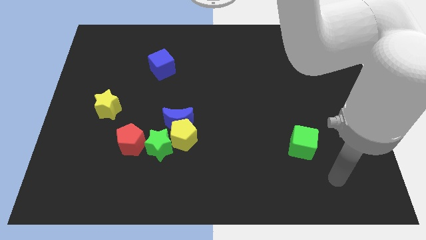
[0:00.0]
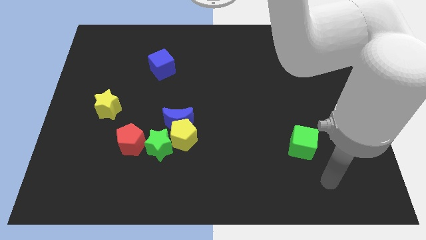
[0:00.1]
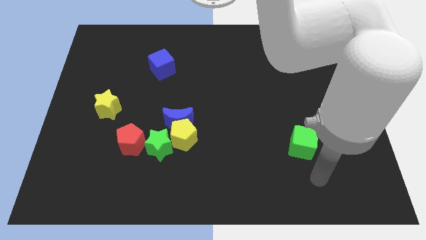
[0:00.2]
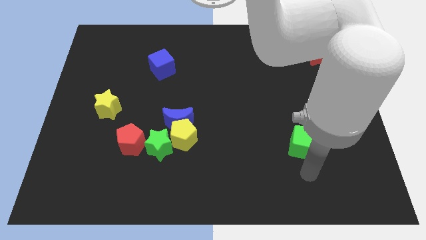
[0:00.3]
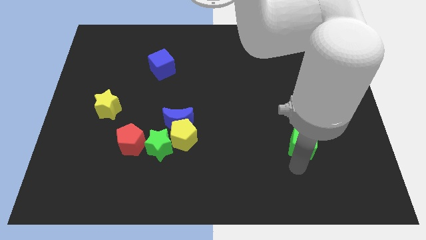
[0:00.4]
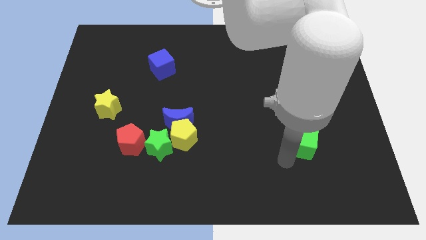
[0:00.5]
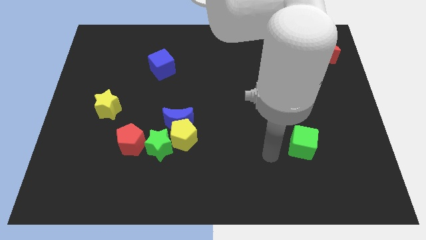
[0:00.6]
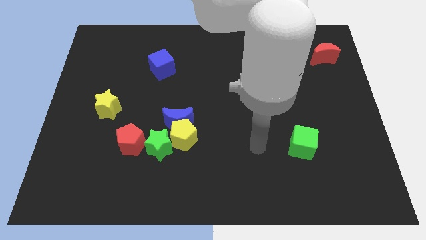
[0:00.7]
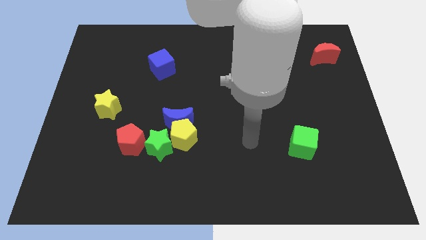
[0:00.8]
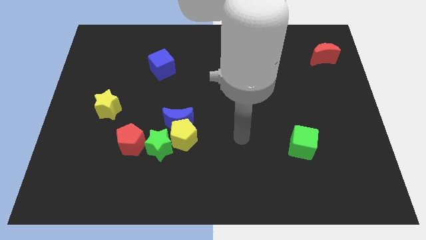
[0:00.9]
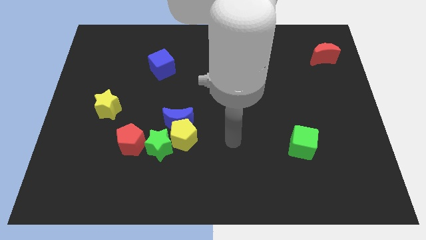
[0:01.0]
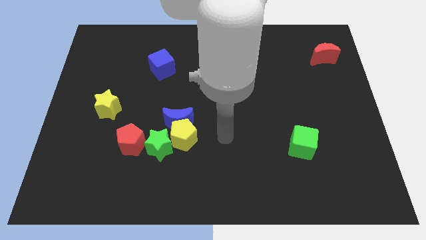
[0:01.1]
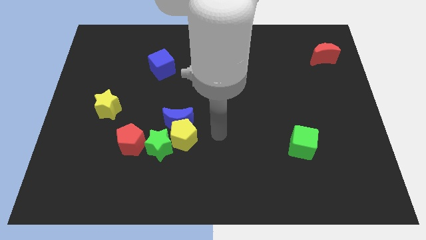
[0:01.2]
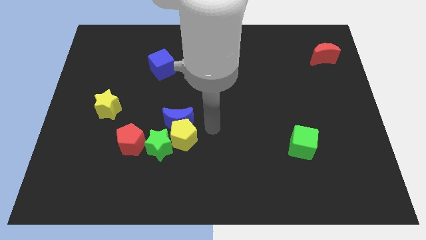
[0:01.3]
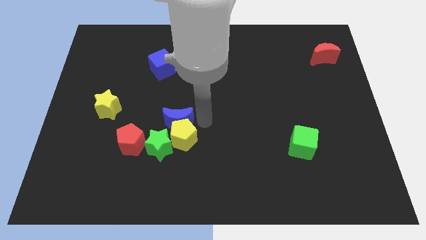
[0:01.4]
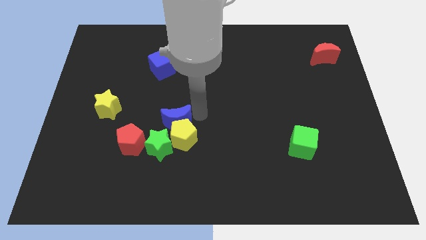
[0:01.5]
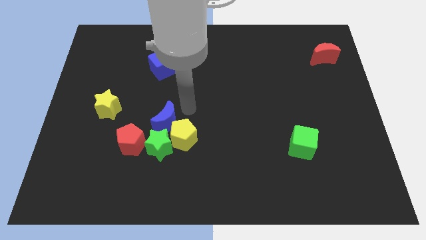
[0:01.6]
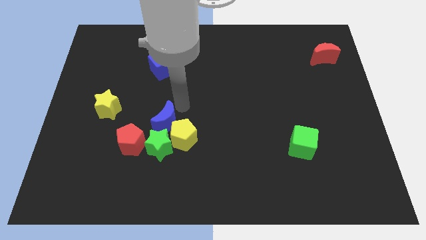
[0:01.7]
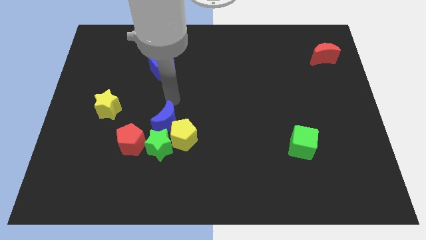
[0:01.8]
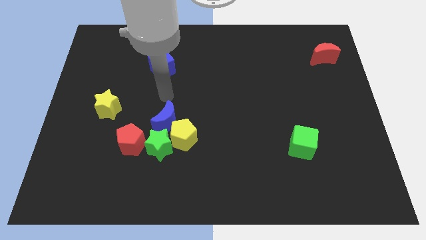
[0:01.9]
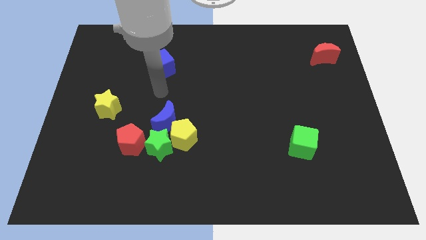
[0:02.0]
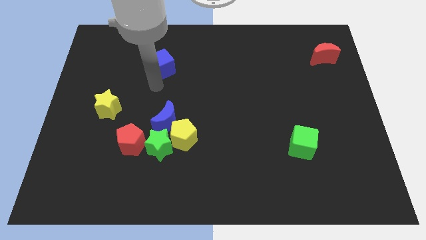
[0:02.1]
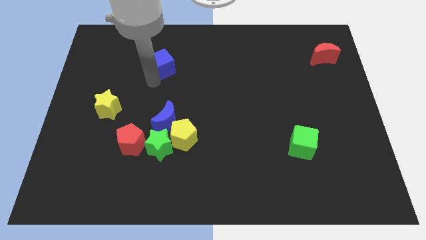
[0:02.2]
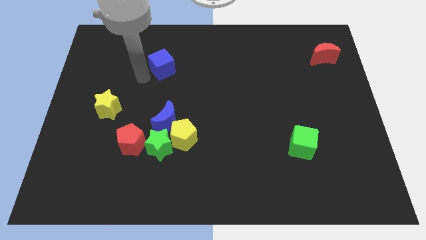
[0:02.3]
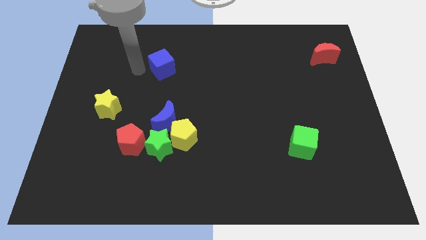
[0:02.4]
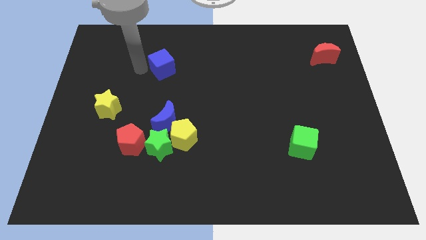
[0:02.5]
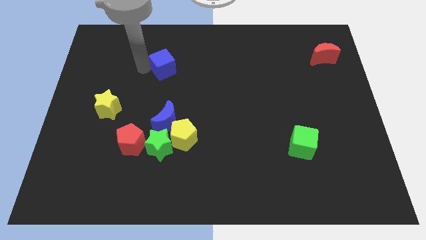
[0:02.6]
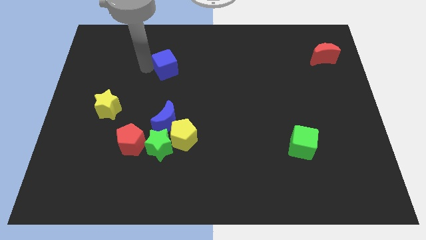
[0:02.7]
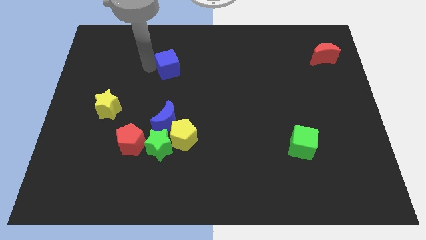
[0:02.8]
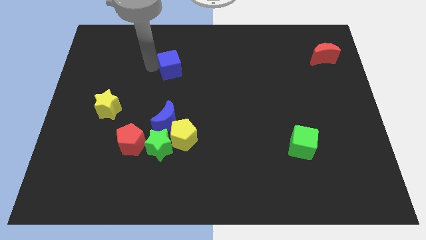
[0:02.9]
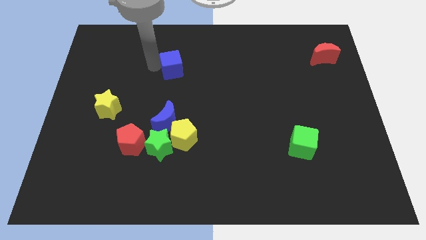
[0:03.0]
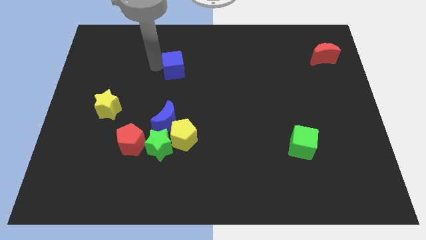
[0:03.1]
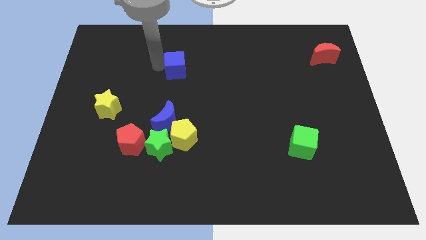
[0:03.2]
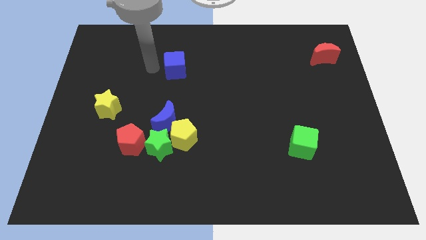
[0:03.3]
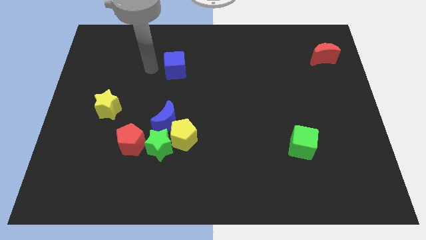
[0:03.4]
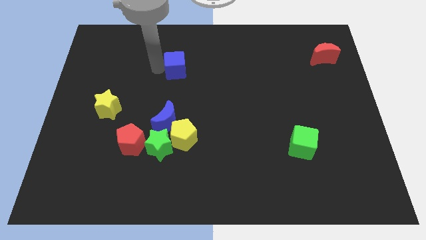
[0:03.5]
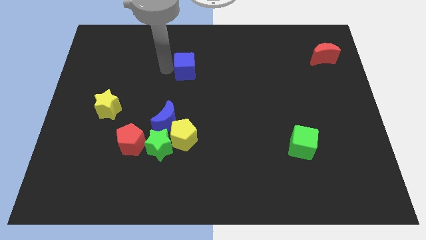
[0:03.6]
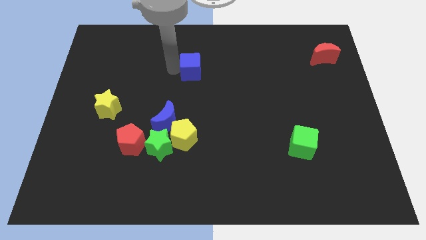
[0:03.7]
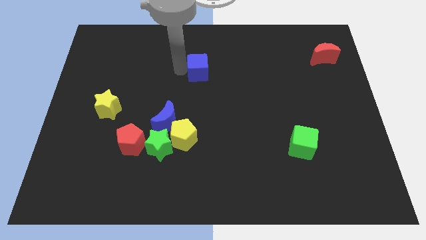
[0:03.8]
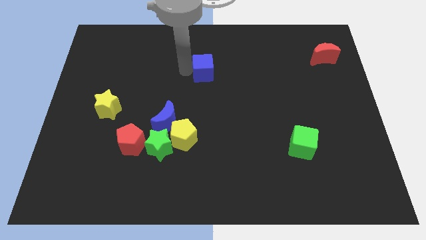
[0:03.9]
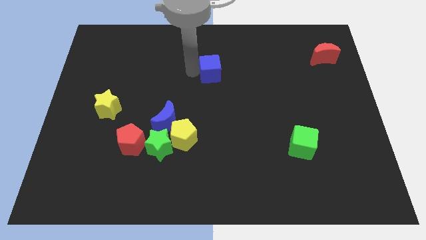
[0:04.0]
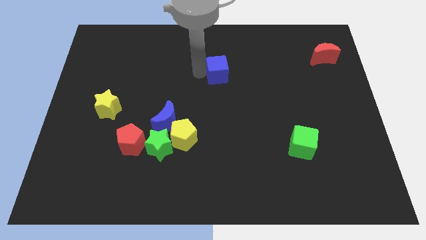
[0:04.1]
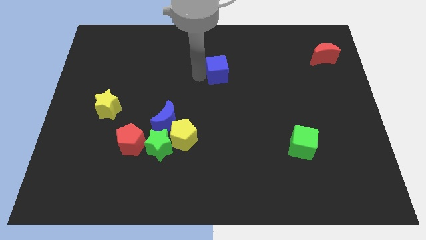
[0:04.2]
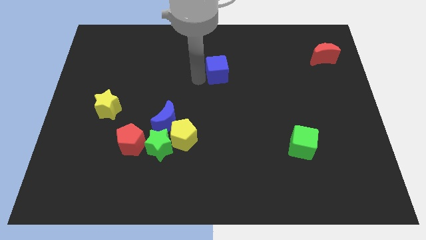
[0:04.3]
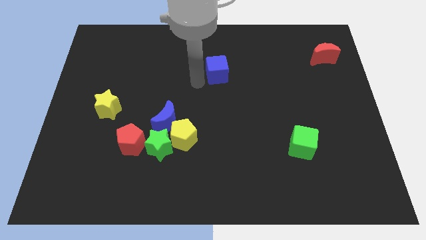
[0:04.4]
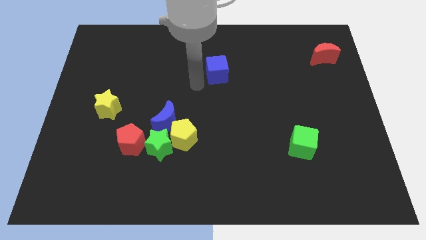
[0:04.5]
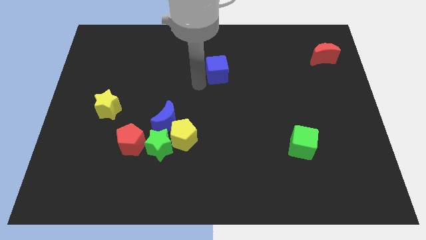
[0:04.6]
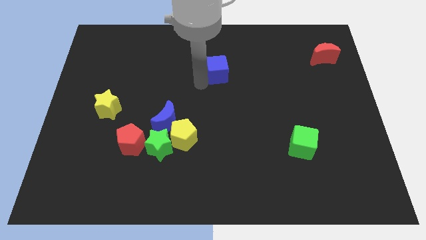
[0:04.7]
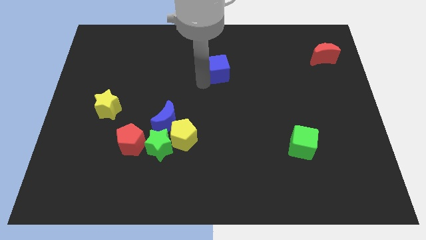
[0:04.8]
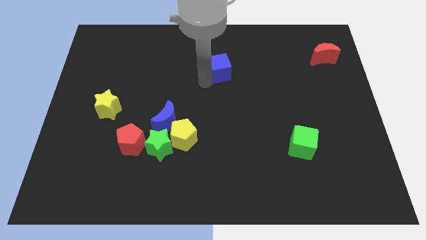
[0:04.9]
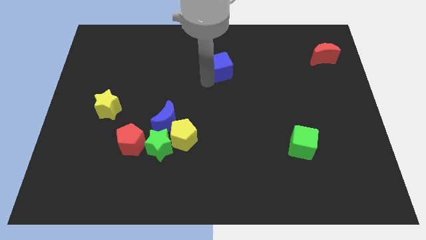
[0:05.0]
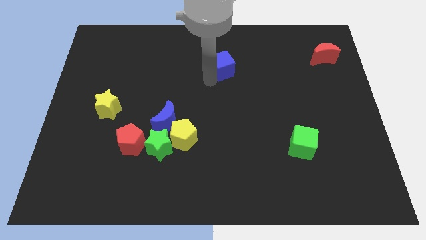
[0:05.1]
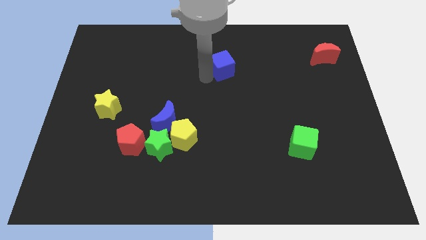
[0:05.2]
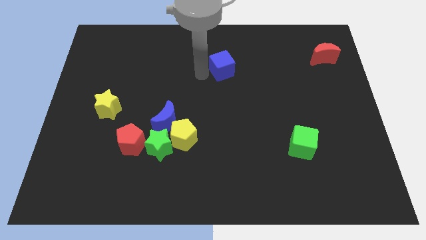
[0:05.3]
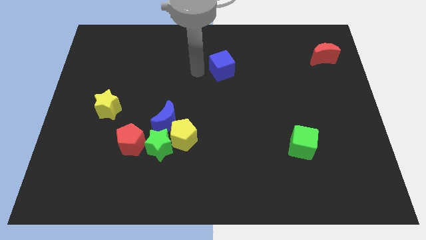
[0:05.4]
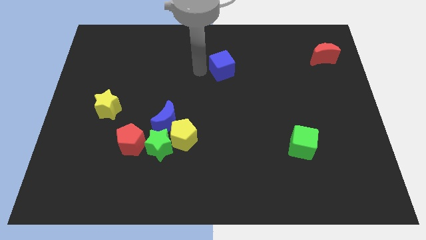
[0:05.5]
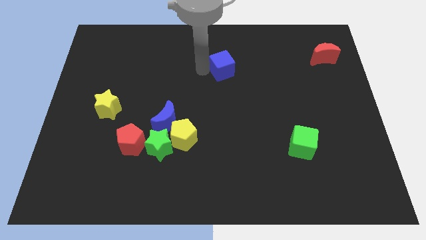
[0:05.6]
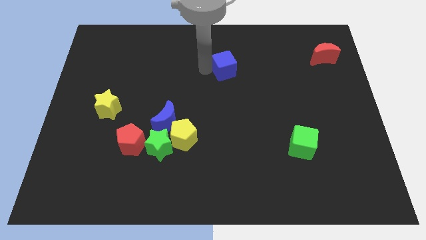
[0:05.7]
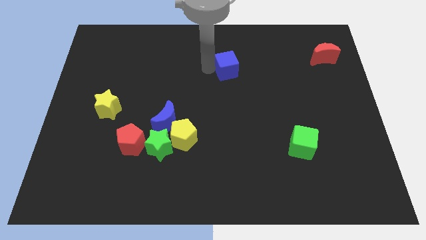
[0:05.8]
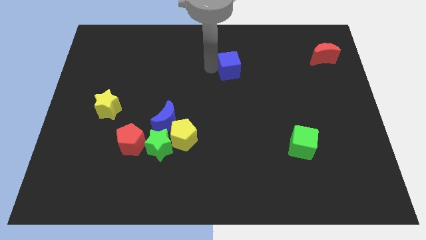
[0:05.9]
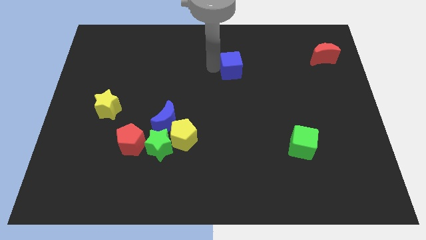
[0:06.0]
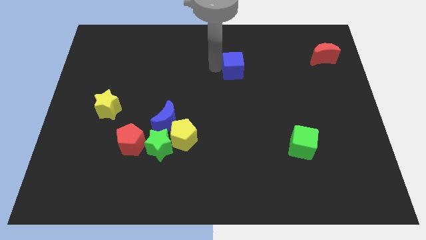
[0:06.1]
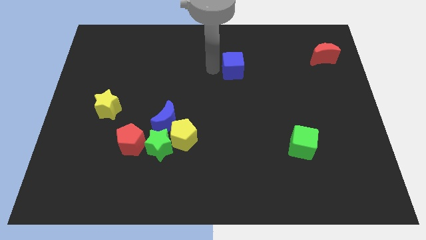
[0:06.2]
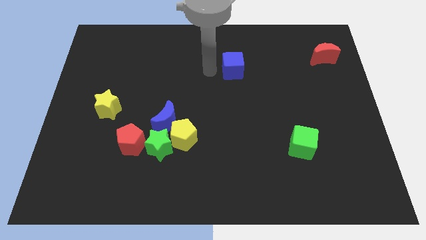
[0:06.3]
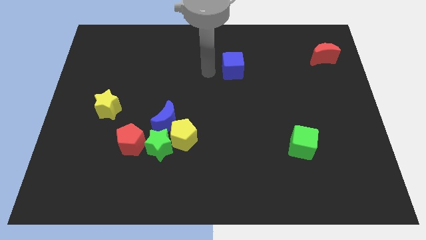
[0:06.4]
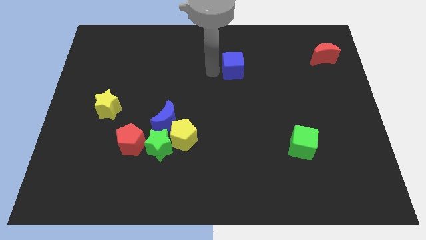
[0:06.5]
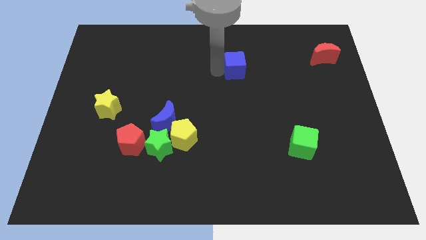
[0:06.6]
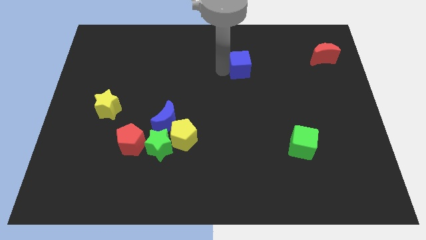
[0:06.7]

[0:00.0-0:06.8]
slide the blue cube to the right

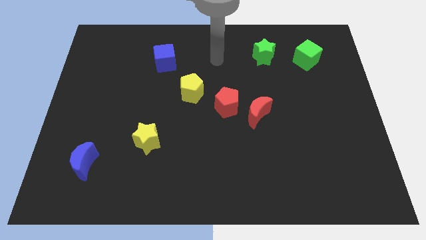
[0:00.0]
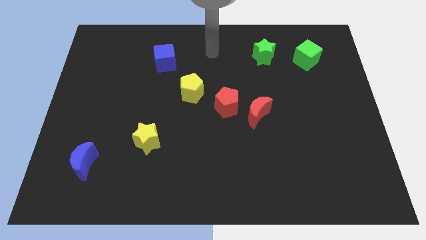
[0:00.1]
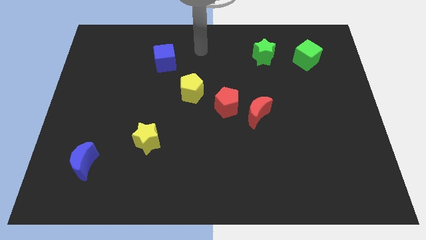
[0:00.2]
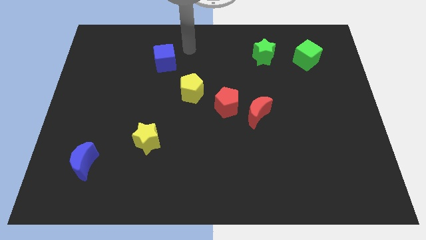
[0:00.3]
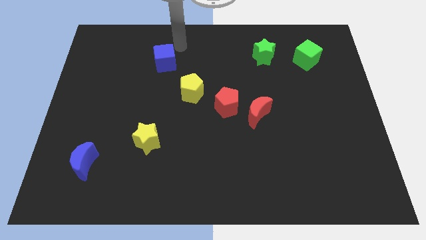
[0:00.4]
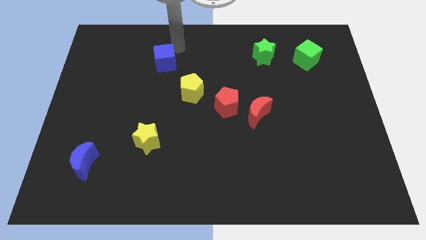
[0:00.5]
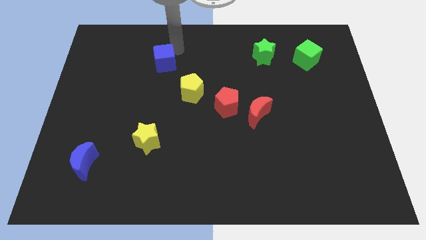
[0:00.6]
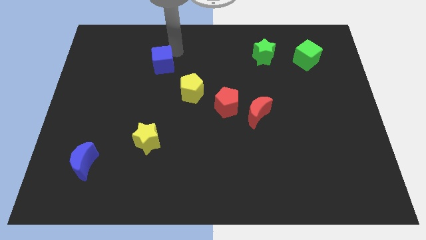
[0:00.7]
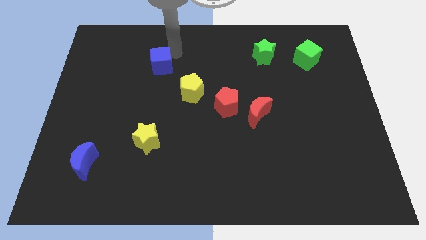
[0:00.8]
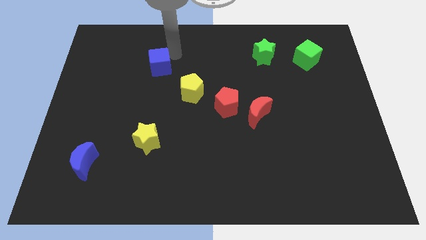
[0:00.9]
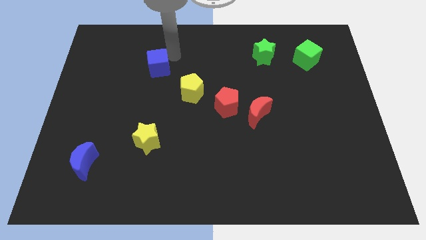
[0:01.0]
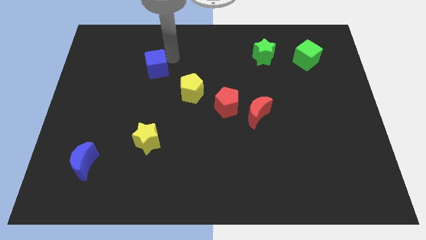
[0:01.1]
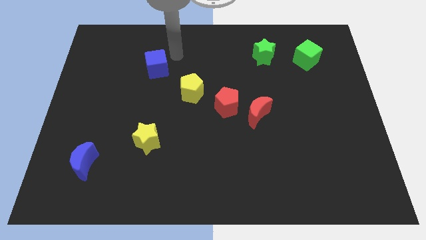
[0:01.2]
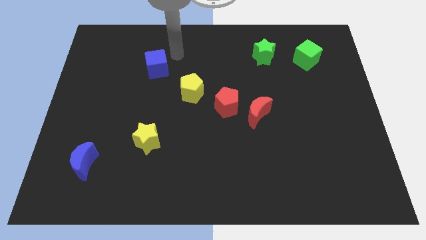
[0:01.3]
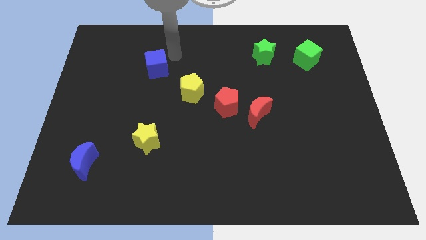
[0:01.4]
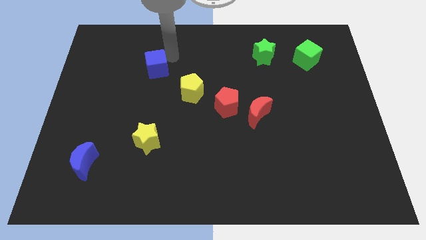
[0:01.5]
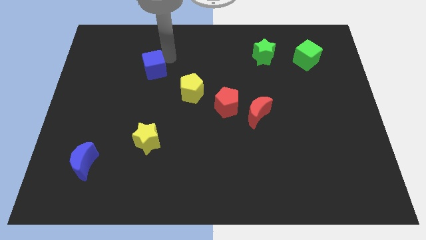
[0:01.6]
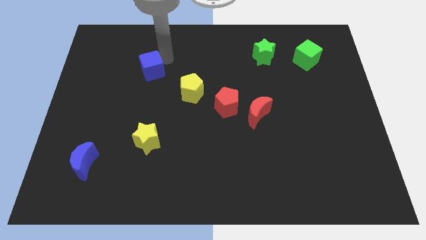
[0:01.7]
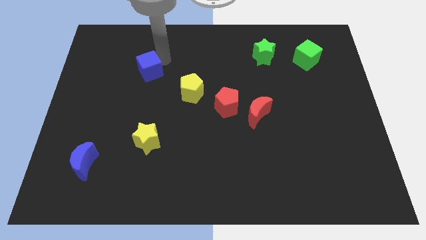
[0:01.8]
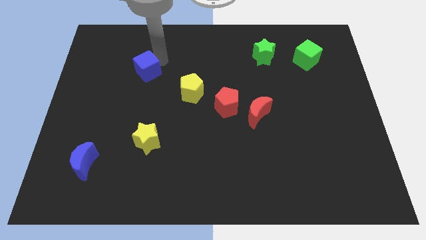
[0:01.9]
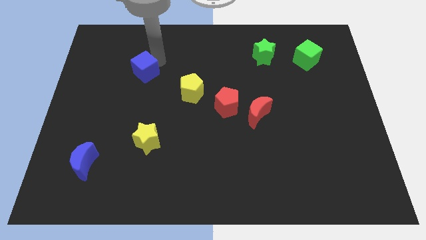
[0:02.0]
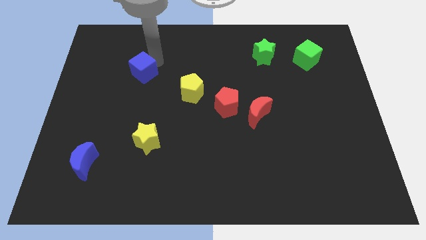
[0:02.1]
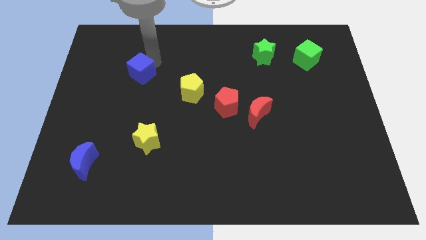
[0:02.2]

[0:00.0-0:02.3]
slide the blue cube down and left diagonally somewhat
